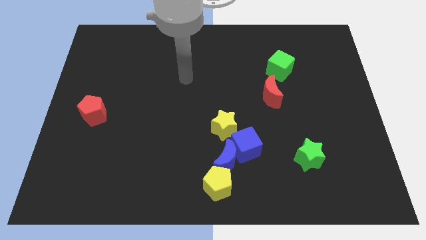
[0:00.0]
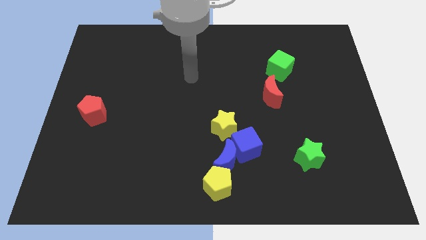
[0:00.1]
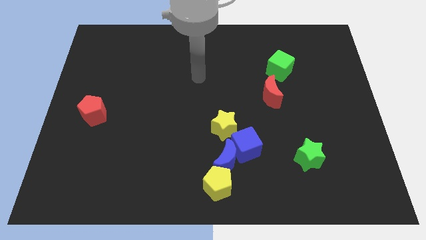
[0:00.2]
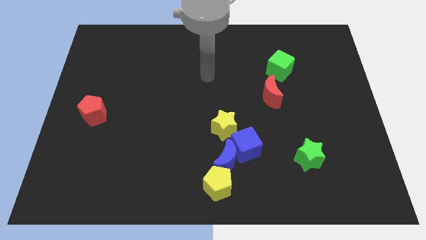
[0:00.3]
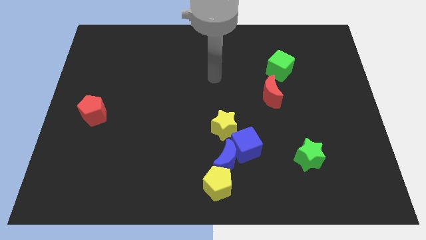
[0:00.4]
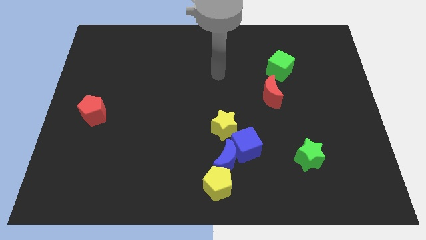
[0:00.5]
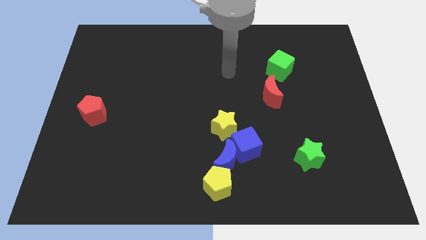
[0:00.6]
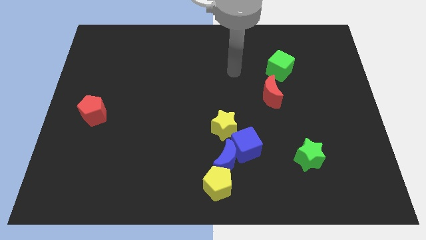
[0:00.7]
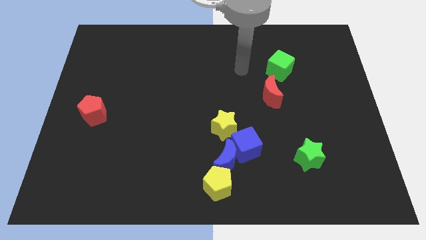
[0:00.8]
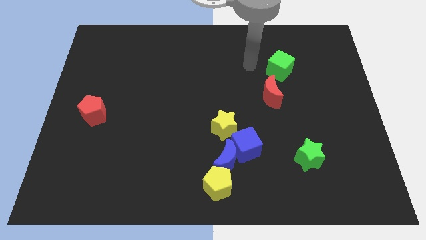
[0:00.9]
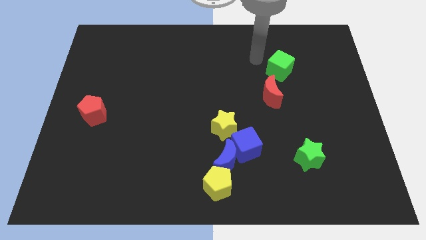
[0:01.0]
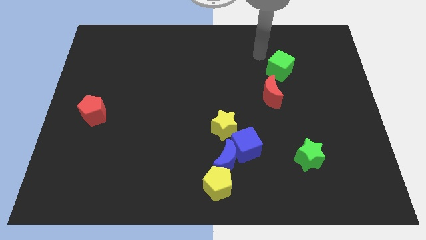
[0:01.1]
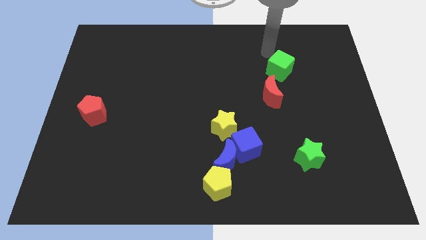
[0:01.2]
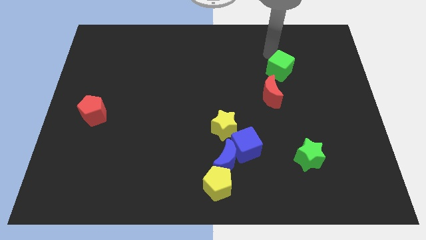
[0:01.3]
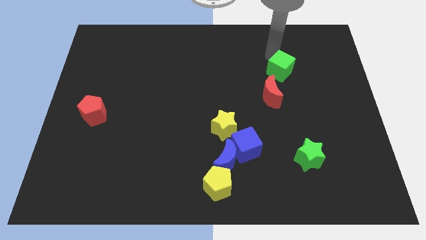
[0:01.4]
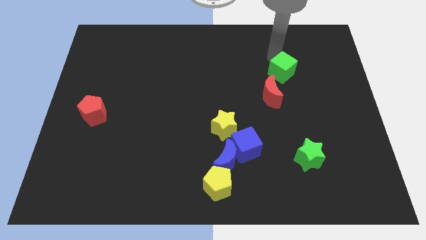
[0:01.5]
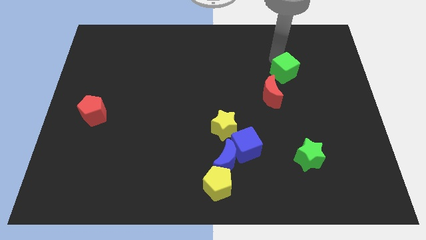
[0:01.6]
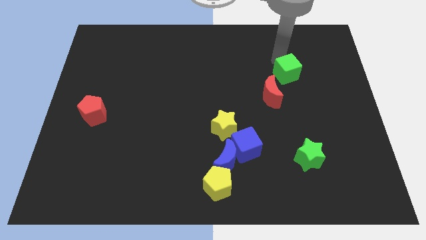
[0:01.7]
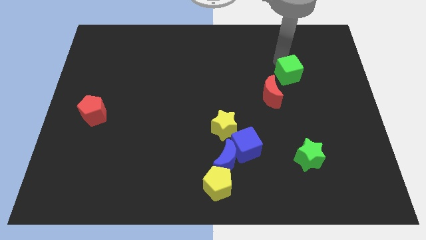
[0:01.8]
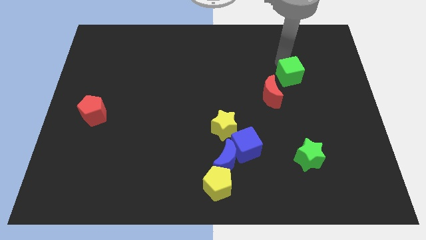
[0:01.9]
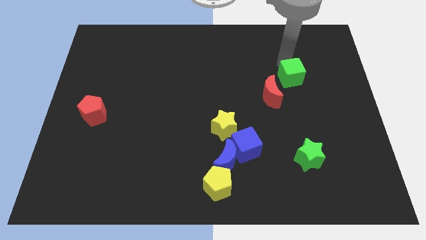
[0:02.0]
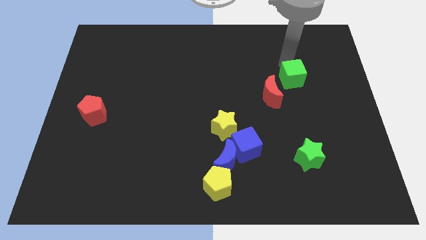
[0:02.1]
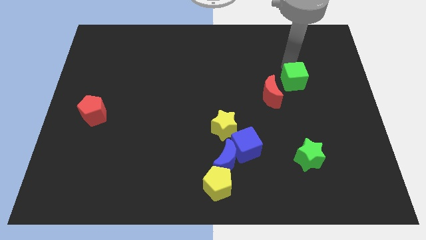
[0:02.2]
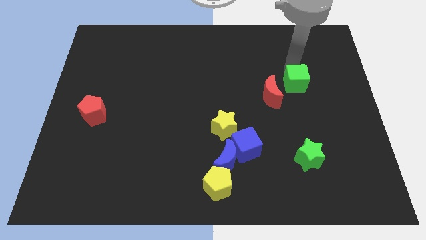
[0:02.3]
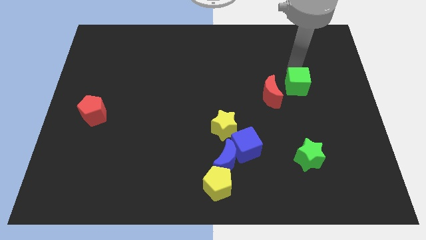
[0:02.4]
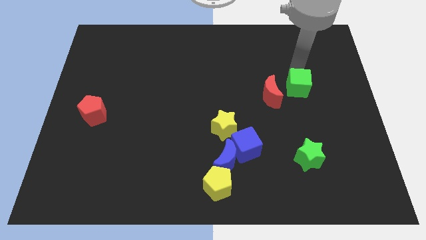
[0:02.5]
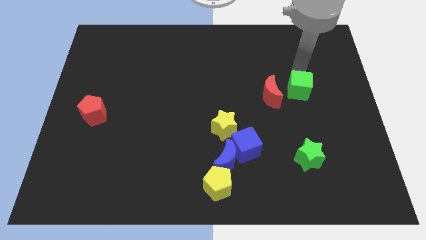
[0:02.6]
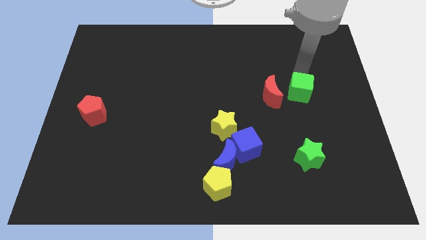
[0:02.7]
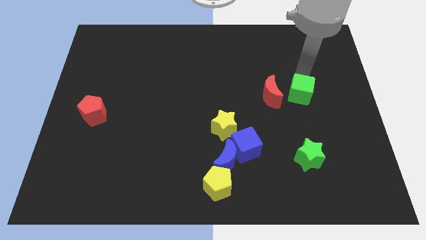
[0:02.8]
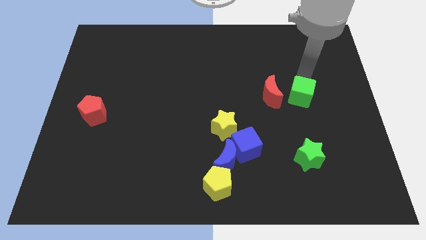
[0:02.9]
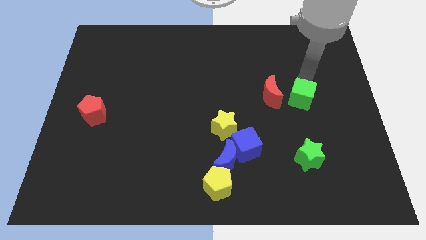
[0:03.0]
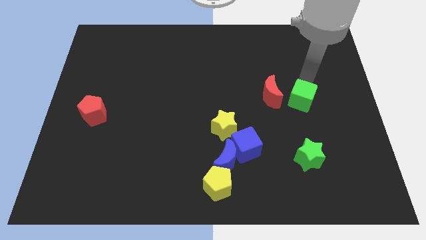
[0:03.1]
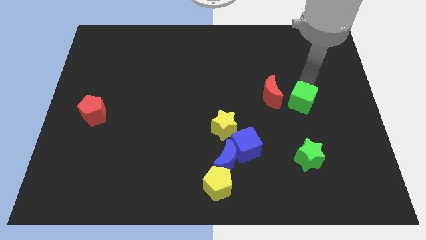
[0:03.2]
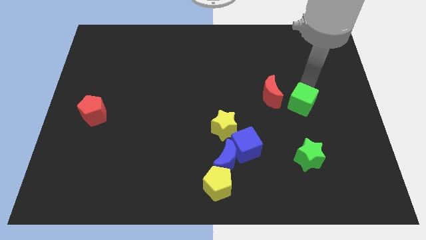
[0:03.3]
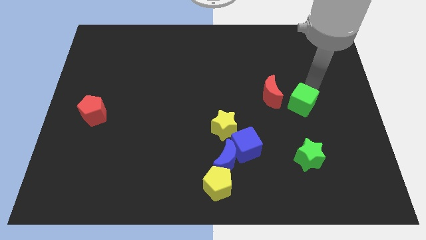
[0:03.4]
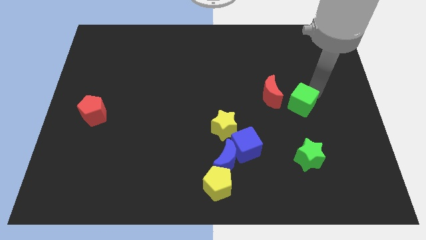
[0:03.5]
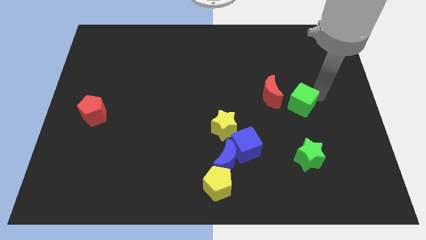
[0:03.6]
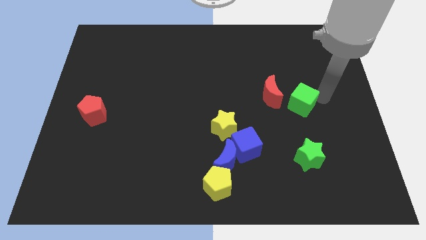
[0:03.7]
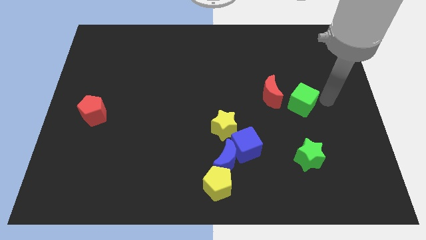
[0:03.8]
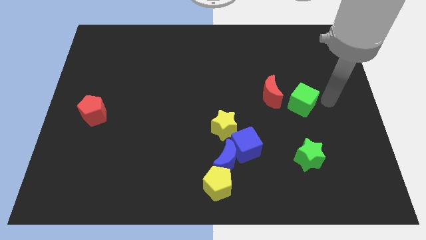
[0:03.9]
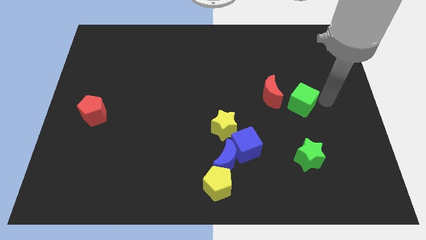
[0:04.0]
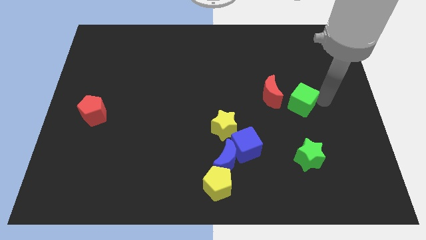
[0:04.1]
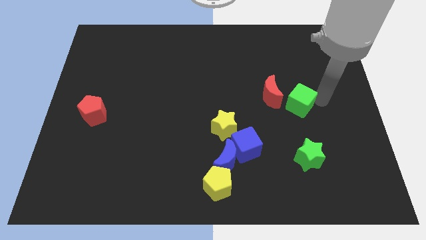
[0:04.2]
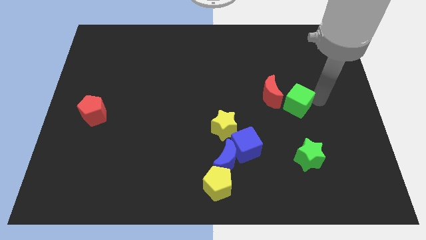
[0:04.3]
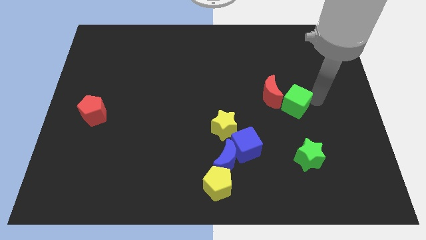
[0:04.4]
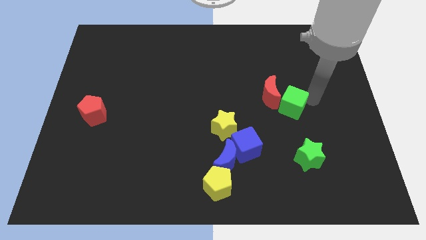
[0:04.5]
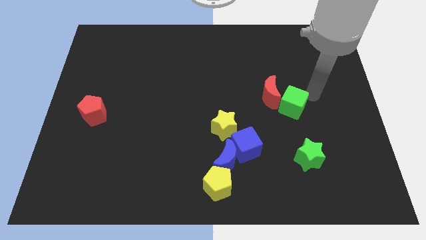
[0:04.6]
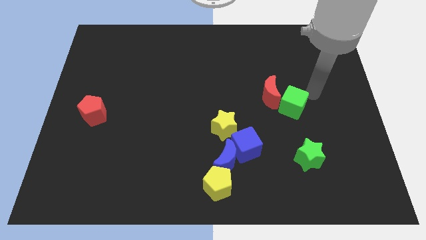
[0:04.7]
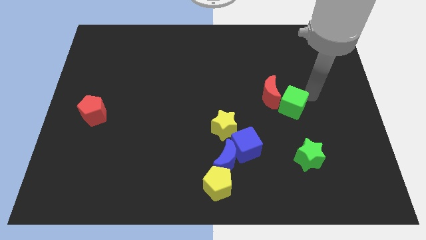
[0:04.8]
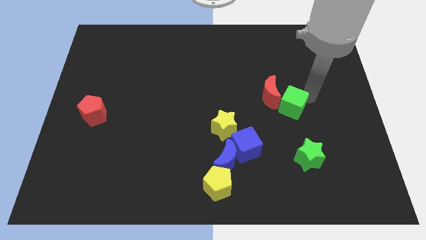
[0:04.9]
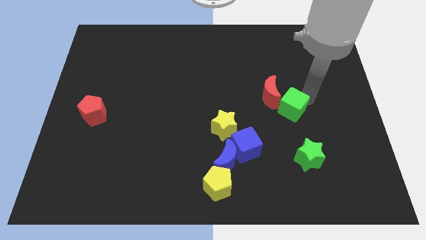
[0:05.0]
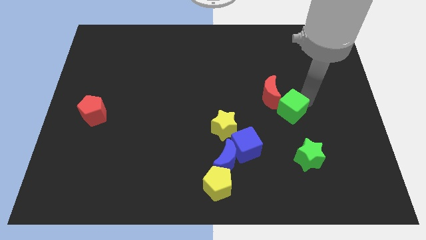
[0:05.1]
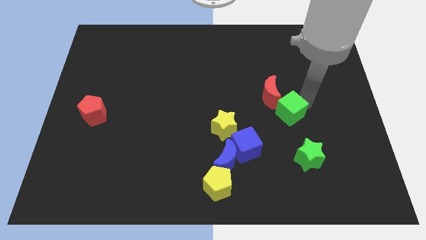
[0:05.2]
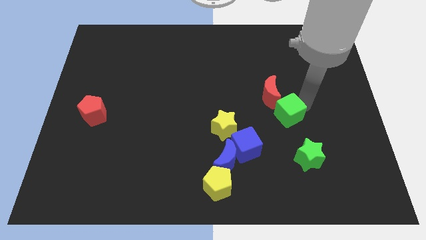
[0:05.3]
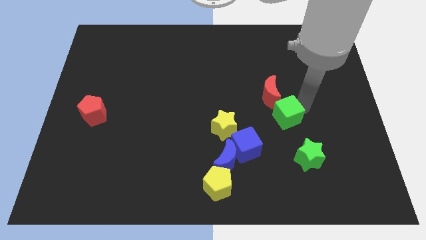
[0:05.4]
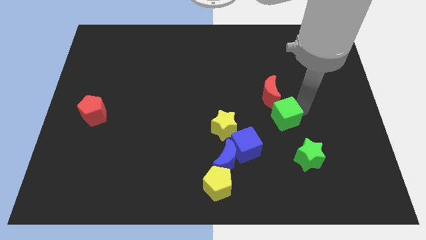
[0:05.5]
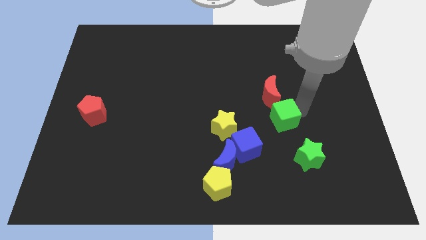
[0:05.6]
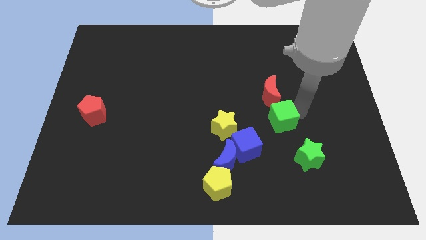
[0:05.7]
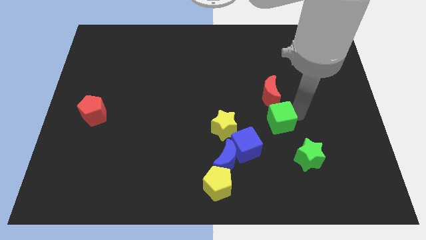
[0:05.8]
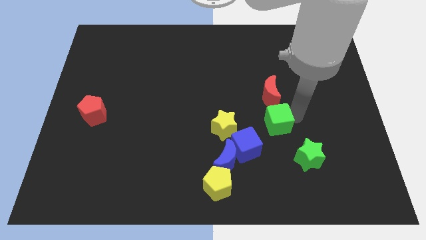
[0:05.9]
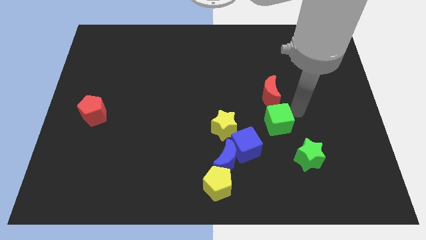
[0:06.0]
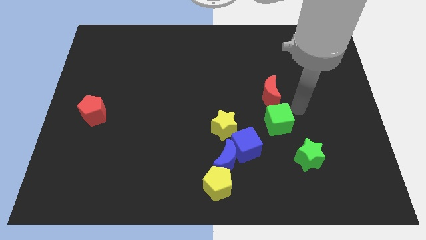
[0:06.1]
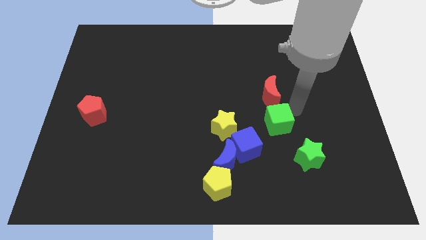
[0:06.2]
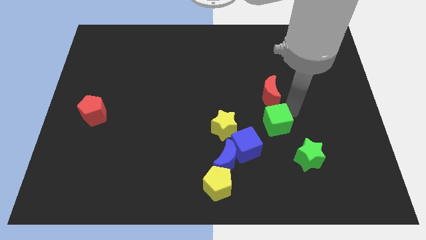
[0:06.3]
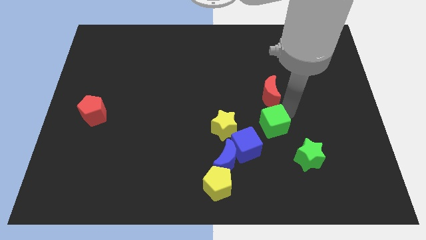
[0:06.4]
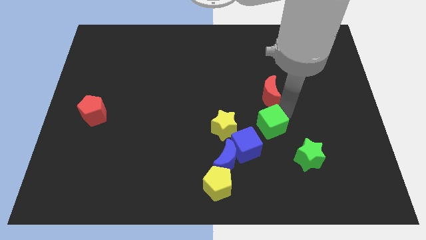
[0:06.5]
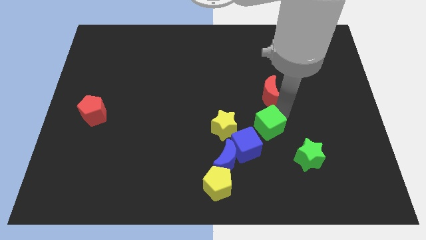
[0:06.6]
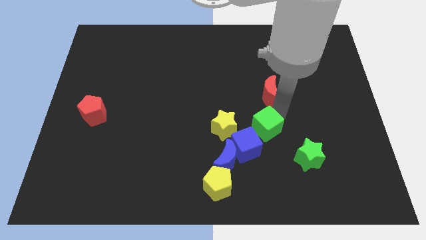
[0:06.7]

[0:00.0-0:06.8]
put the green cube diagonally up and to the right of the blue moon

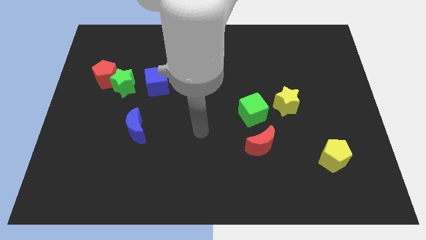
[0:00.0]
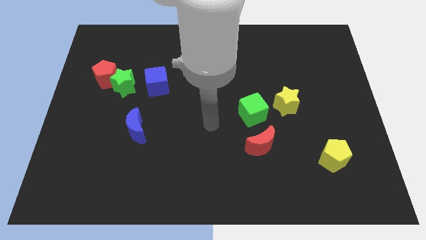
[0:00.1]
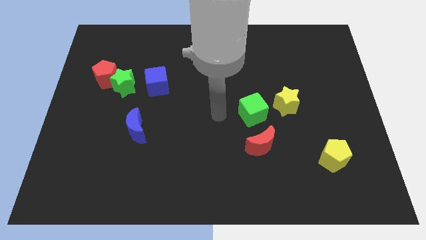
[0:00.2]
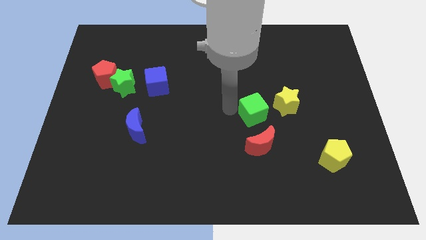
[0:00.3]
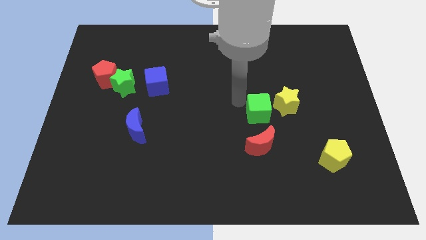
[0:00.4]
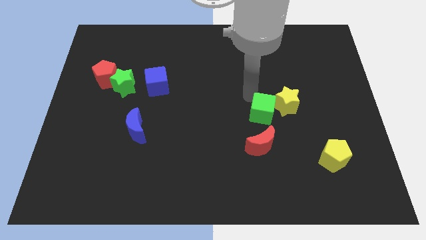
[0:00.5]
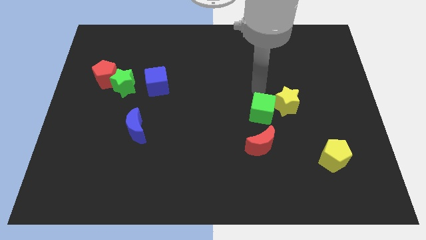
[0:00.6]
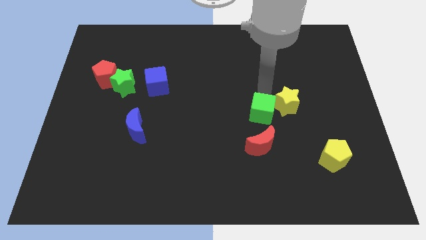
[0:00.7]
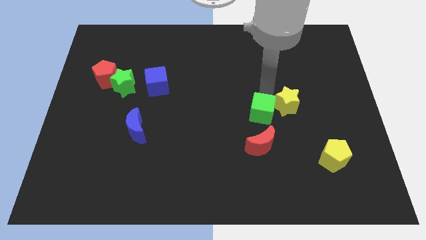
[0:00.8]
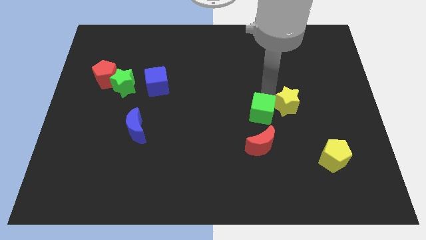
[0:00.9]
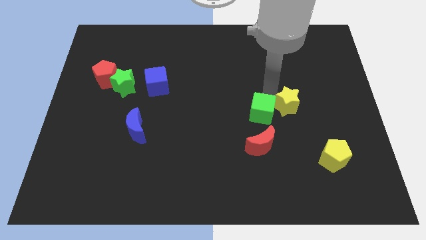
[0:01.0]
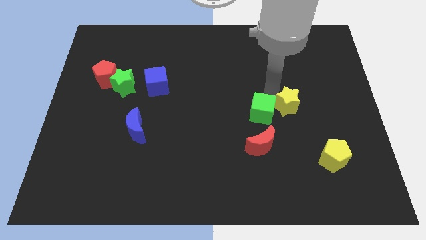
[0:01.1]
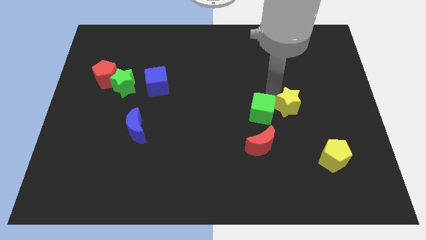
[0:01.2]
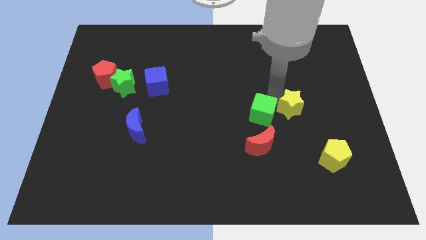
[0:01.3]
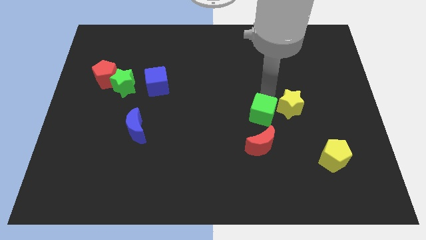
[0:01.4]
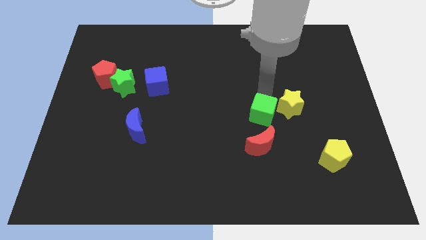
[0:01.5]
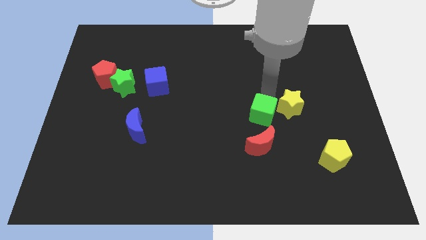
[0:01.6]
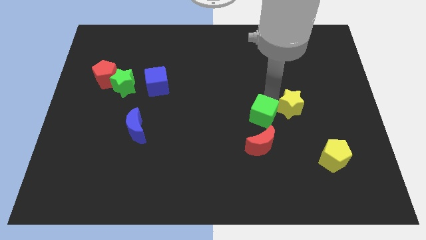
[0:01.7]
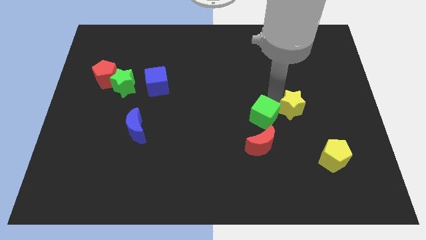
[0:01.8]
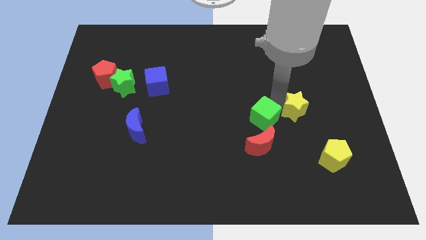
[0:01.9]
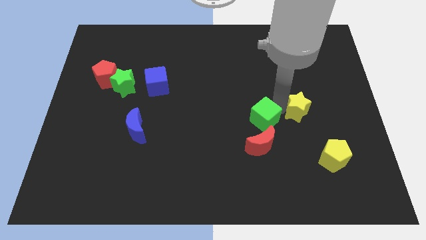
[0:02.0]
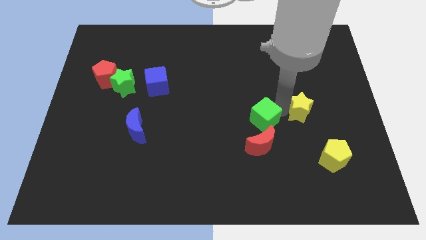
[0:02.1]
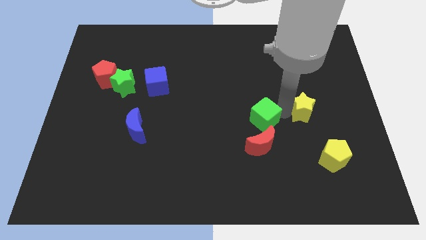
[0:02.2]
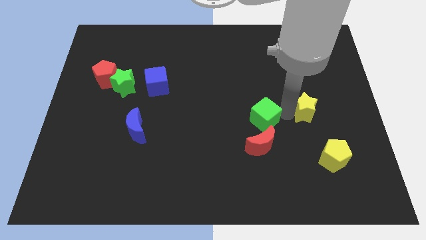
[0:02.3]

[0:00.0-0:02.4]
move the yellow star above the yellow pentagon
